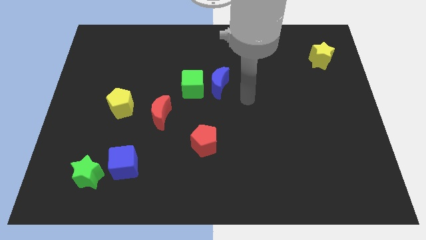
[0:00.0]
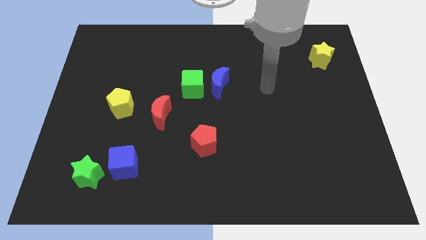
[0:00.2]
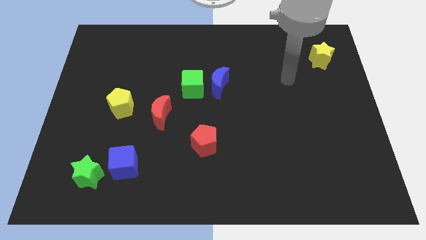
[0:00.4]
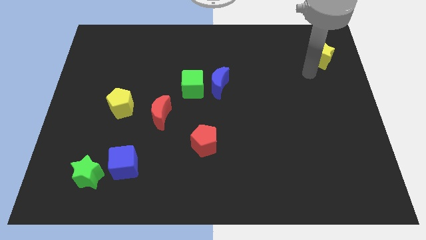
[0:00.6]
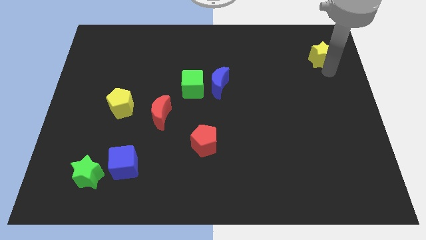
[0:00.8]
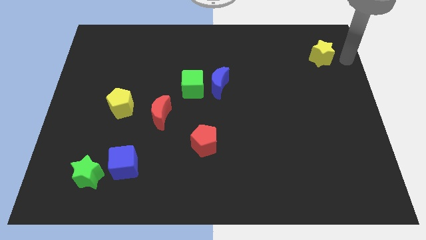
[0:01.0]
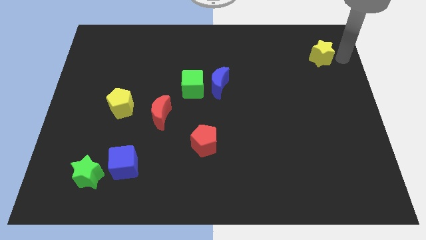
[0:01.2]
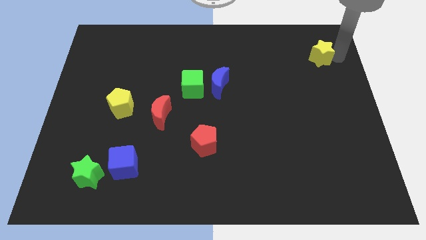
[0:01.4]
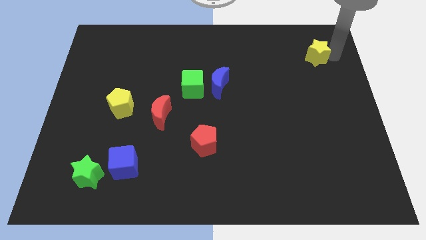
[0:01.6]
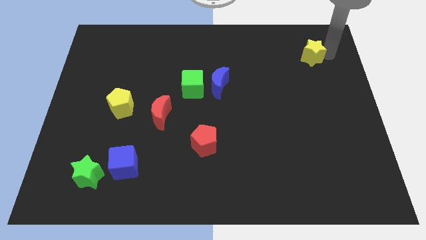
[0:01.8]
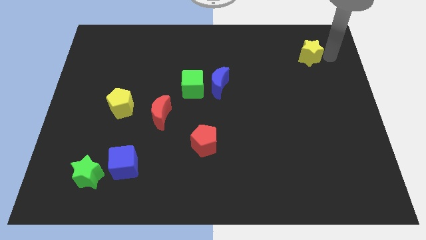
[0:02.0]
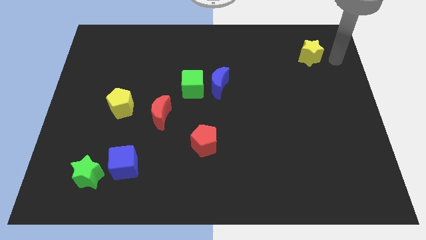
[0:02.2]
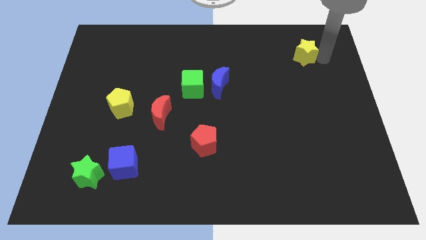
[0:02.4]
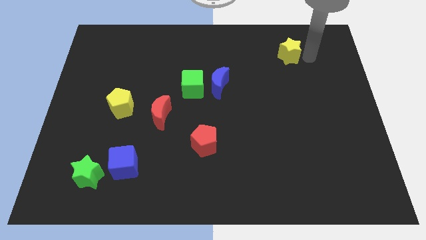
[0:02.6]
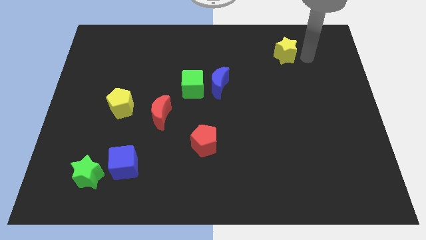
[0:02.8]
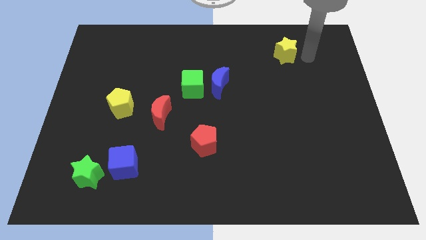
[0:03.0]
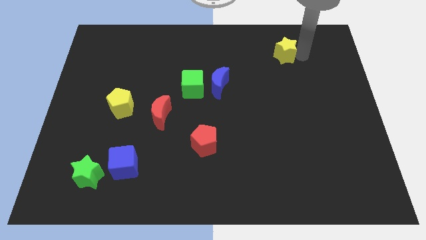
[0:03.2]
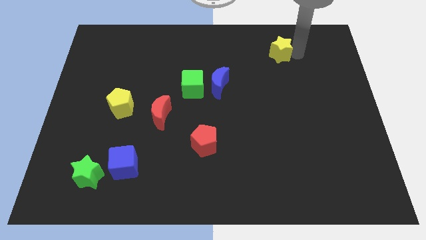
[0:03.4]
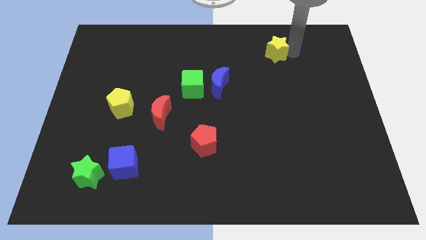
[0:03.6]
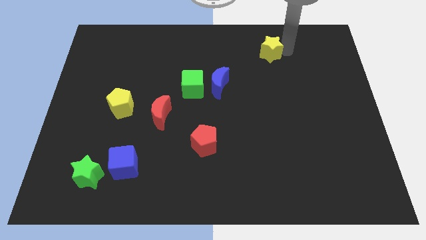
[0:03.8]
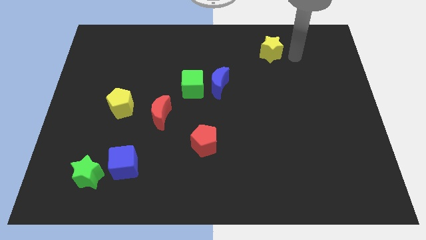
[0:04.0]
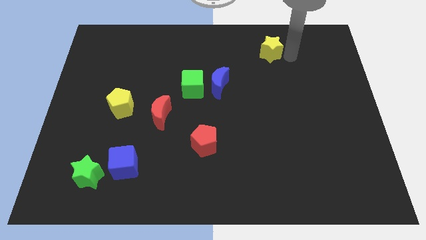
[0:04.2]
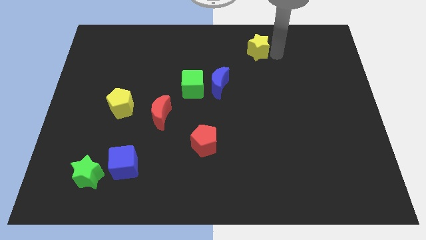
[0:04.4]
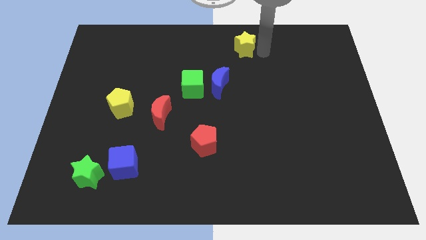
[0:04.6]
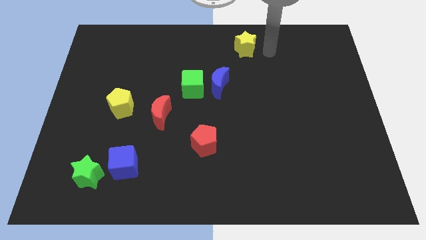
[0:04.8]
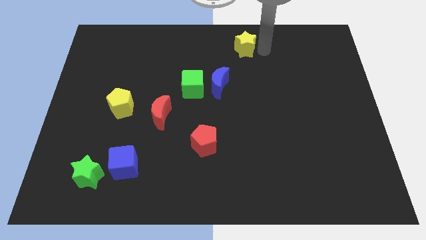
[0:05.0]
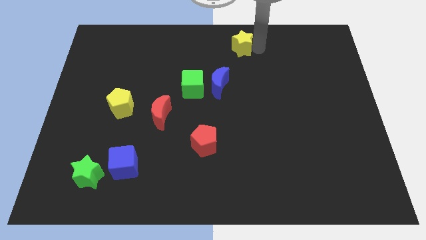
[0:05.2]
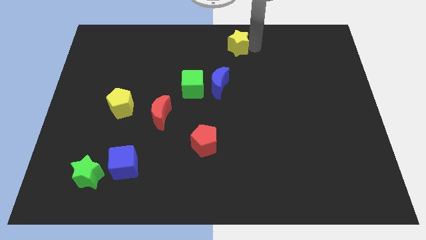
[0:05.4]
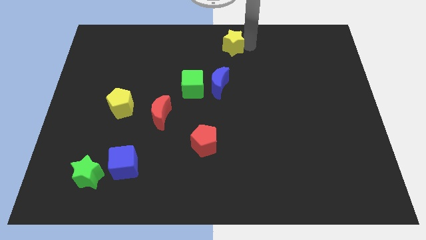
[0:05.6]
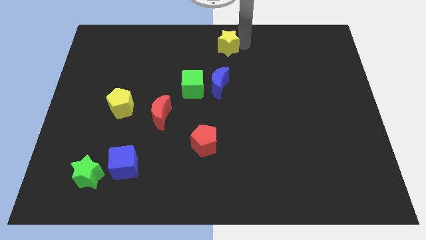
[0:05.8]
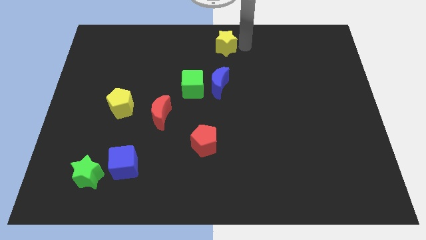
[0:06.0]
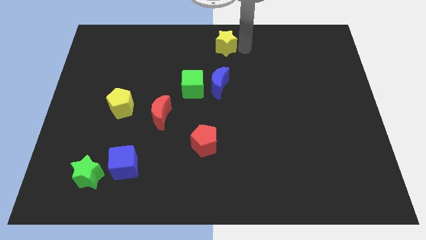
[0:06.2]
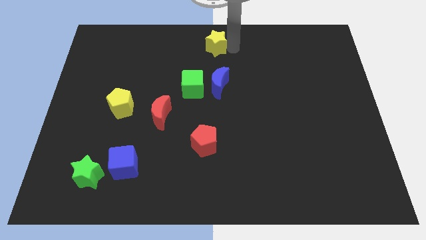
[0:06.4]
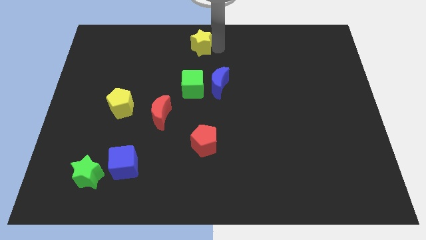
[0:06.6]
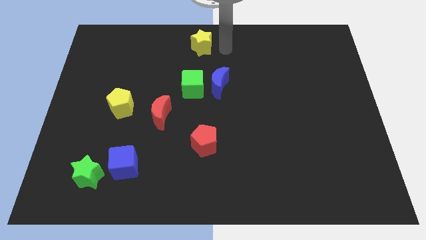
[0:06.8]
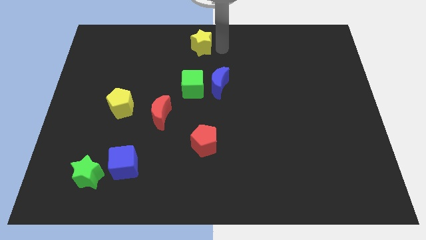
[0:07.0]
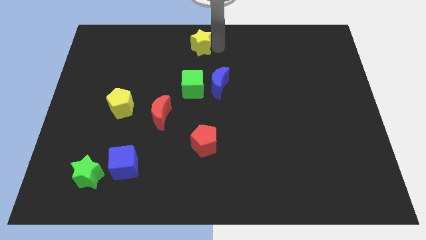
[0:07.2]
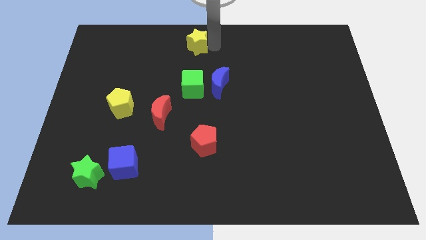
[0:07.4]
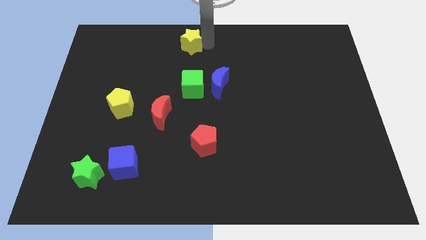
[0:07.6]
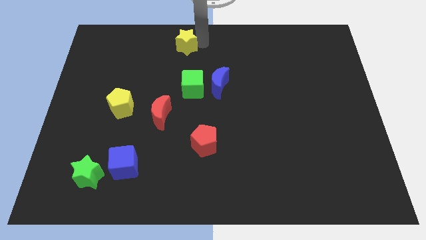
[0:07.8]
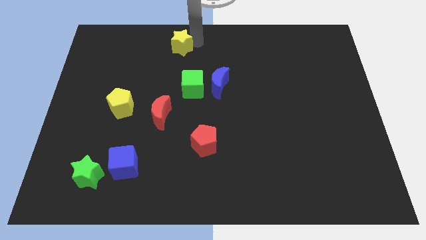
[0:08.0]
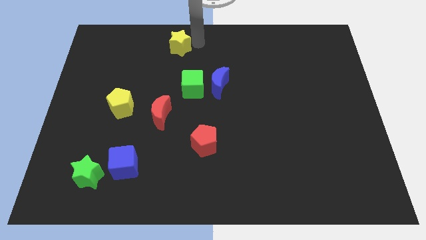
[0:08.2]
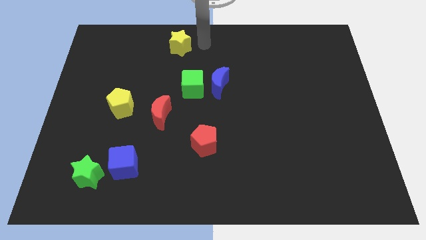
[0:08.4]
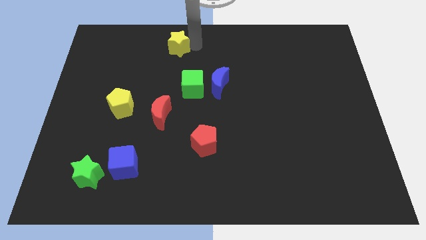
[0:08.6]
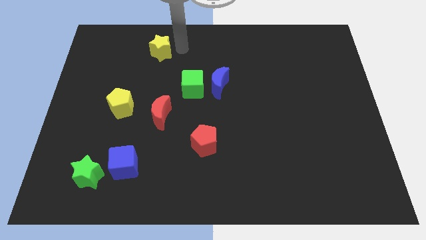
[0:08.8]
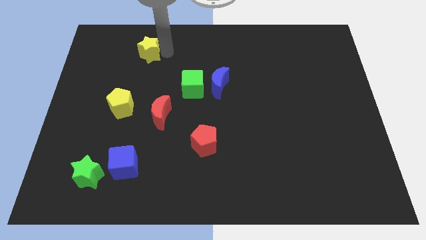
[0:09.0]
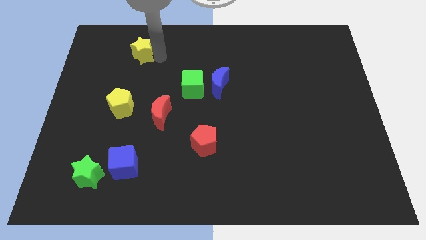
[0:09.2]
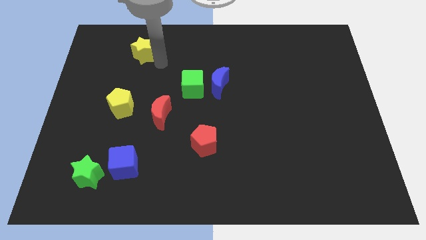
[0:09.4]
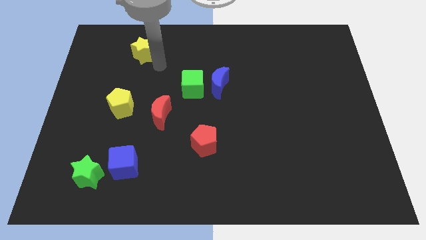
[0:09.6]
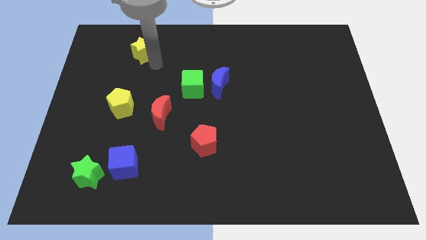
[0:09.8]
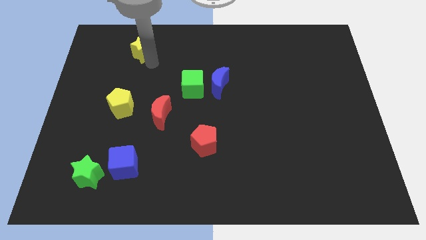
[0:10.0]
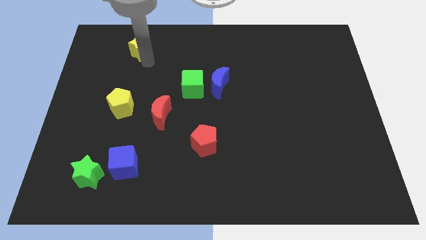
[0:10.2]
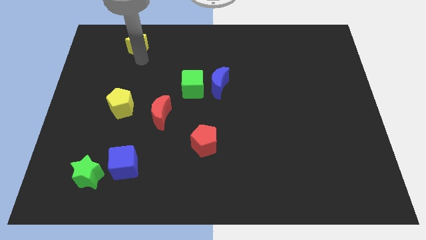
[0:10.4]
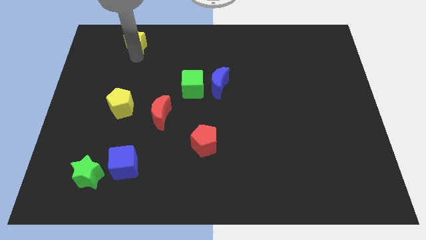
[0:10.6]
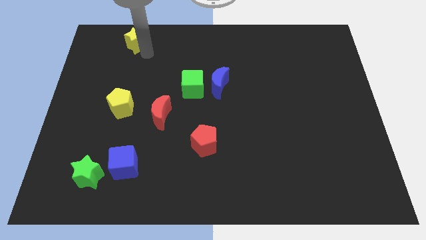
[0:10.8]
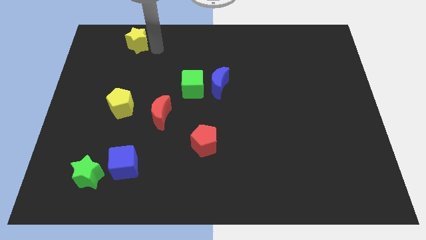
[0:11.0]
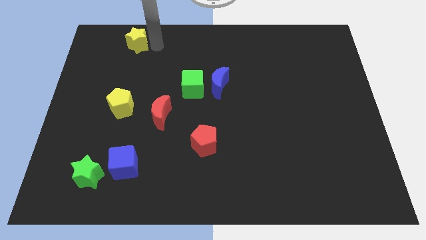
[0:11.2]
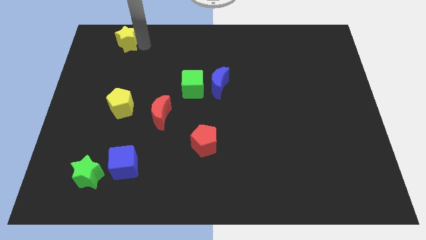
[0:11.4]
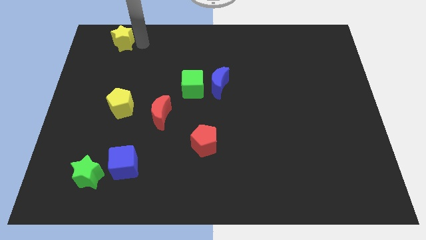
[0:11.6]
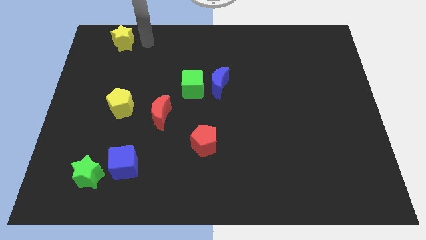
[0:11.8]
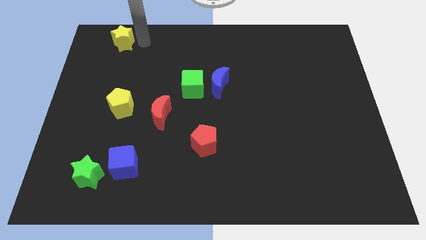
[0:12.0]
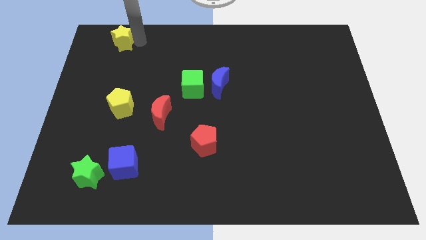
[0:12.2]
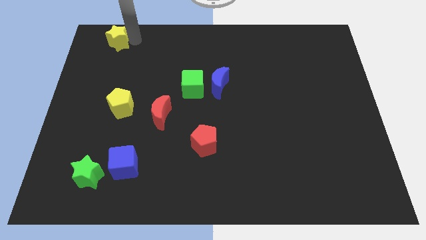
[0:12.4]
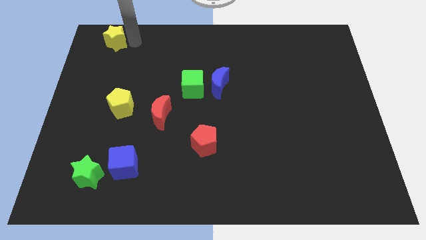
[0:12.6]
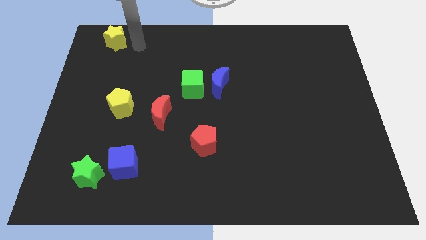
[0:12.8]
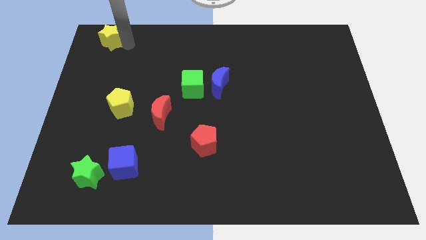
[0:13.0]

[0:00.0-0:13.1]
move the yellow star to the top left corner
